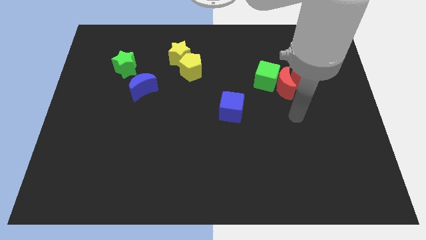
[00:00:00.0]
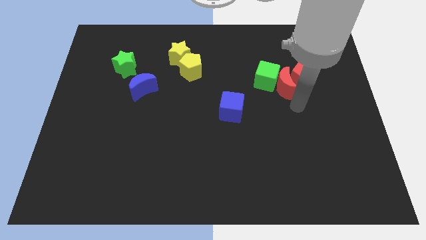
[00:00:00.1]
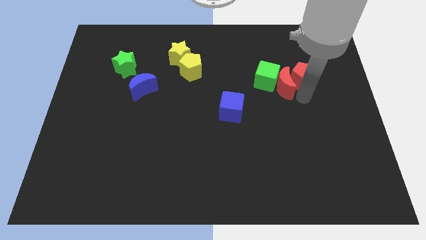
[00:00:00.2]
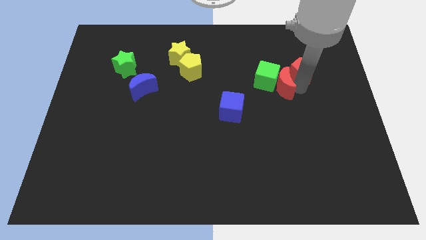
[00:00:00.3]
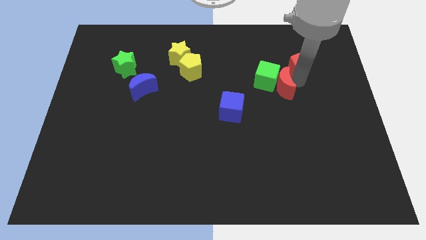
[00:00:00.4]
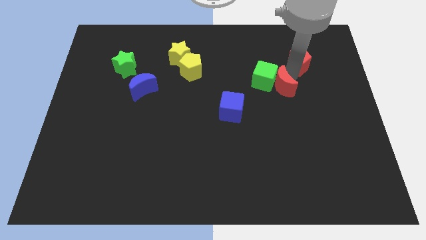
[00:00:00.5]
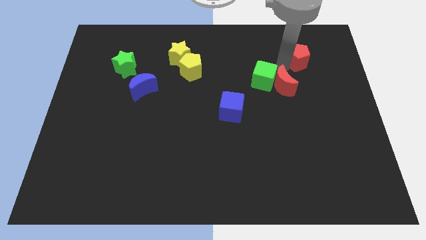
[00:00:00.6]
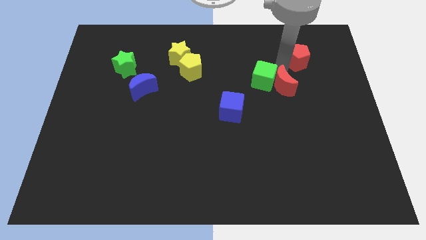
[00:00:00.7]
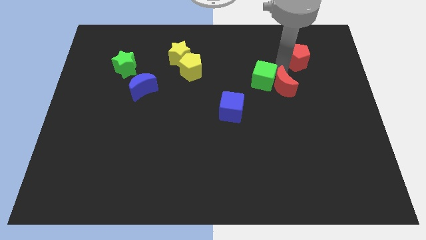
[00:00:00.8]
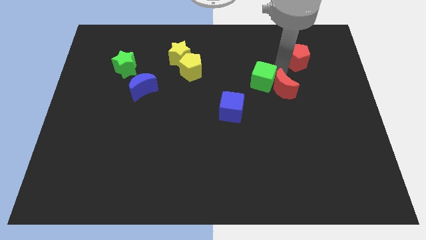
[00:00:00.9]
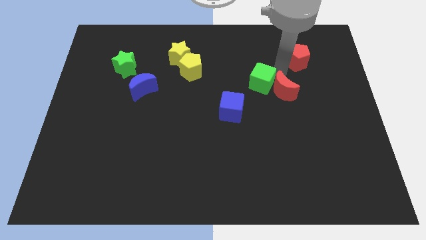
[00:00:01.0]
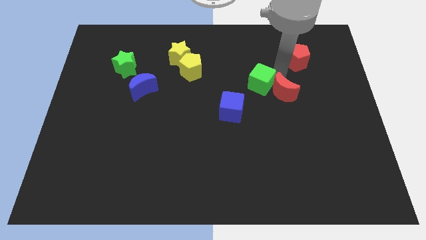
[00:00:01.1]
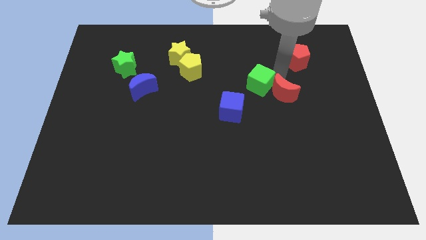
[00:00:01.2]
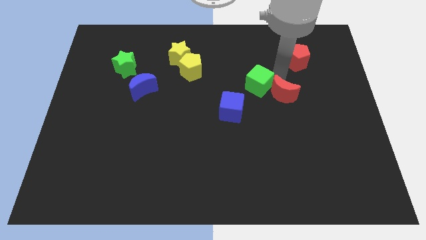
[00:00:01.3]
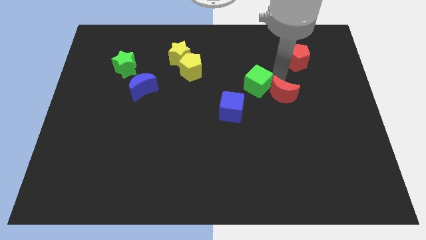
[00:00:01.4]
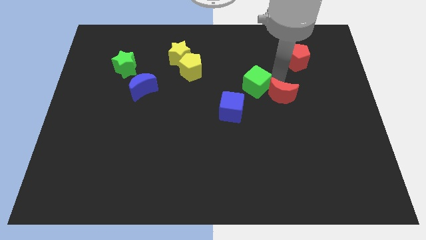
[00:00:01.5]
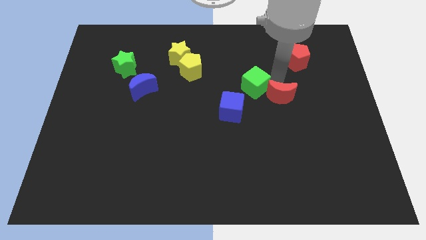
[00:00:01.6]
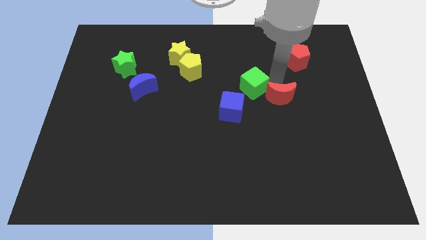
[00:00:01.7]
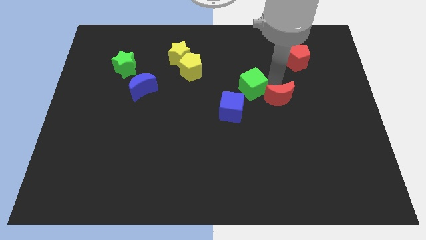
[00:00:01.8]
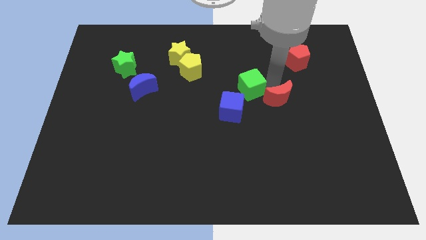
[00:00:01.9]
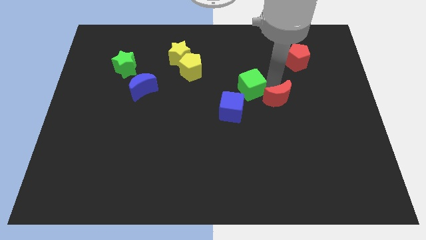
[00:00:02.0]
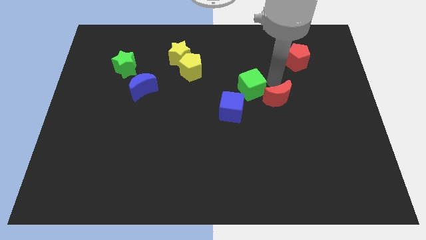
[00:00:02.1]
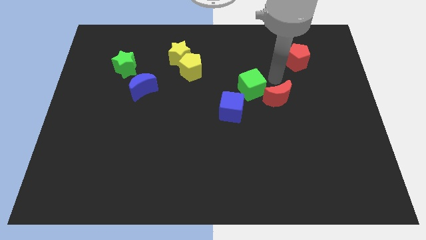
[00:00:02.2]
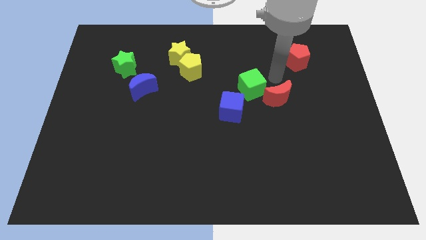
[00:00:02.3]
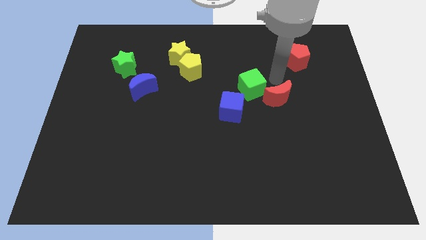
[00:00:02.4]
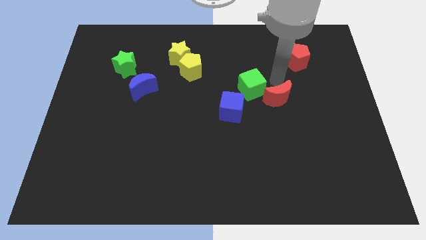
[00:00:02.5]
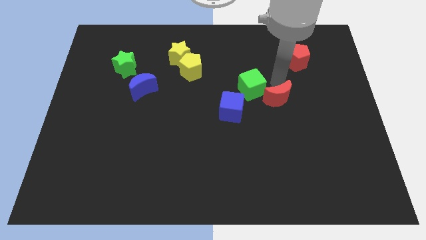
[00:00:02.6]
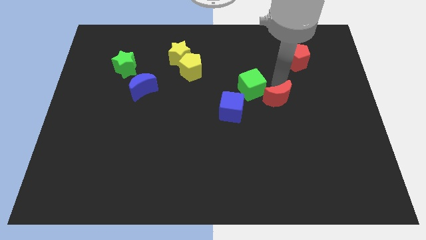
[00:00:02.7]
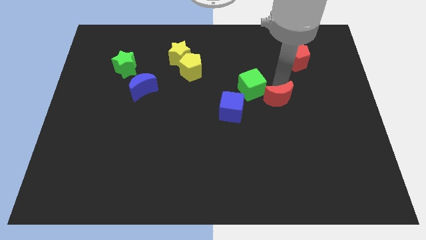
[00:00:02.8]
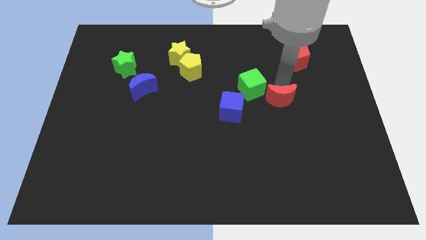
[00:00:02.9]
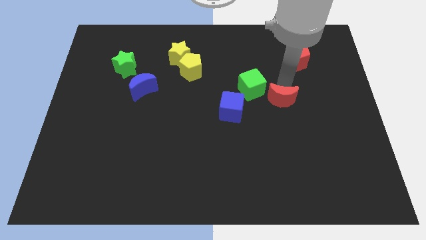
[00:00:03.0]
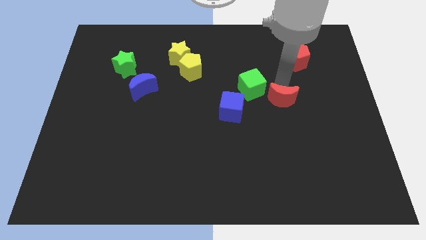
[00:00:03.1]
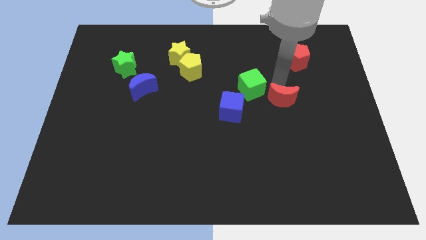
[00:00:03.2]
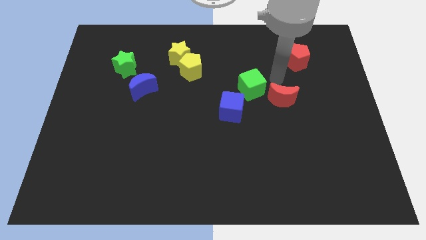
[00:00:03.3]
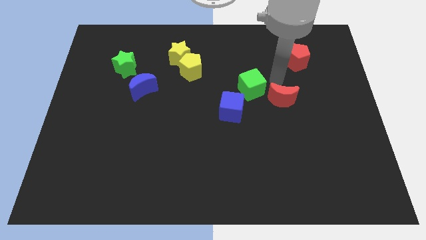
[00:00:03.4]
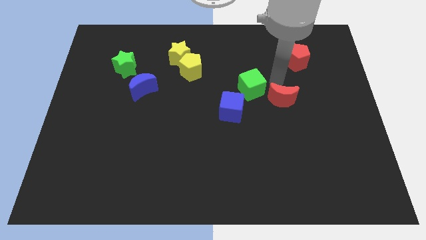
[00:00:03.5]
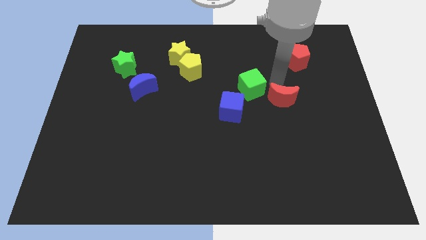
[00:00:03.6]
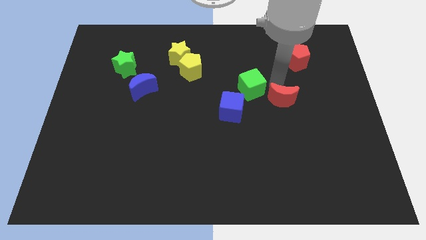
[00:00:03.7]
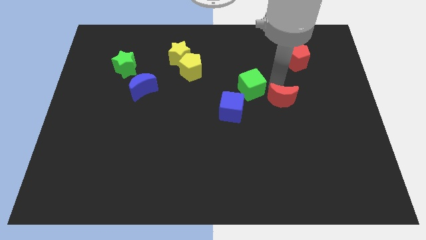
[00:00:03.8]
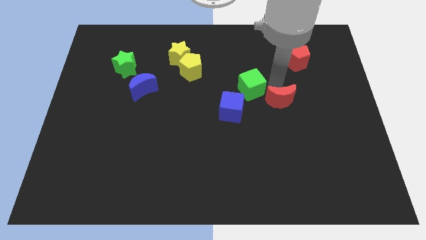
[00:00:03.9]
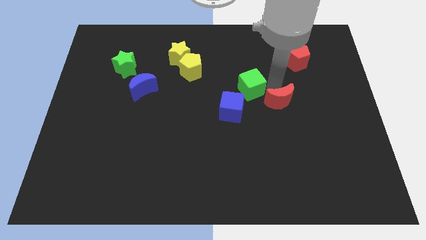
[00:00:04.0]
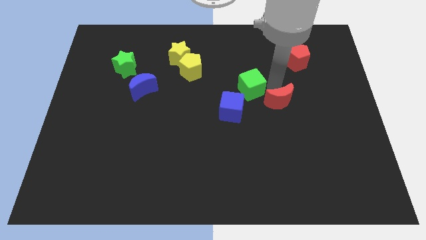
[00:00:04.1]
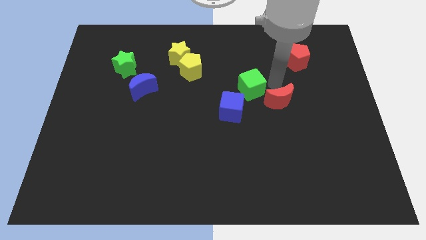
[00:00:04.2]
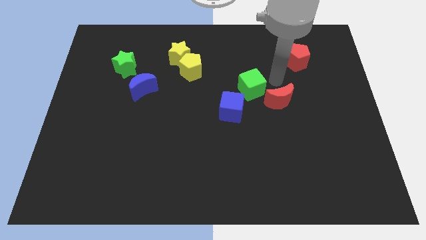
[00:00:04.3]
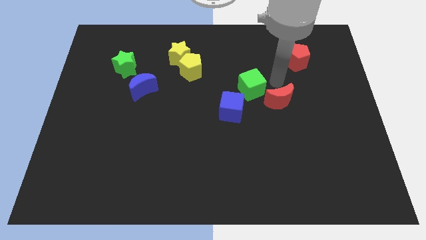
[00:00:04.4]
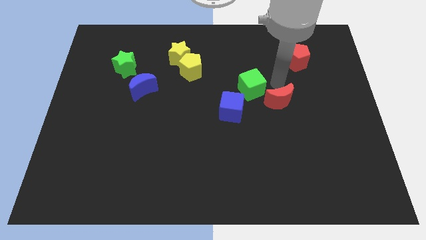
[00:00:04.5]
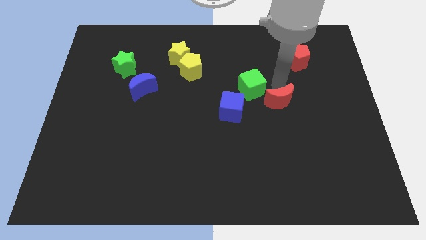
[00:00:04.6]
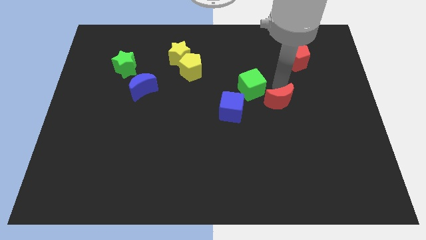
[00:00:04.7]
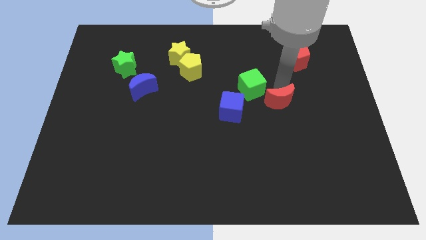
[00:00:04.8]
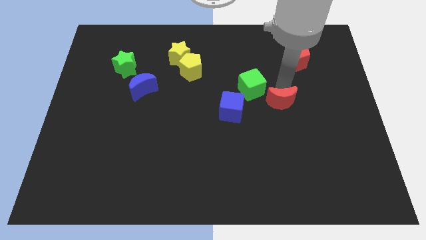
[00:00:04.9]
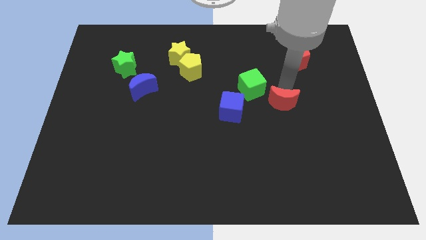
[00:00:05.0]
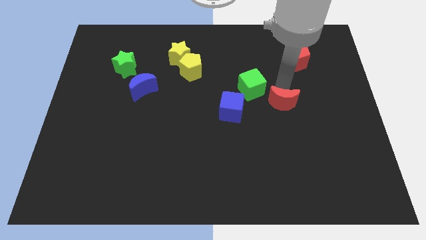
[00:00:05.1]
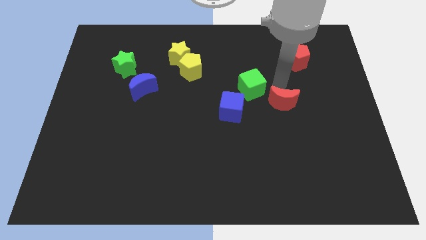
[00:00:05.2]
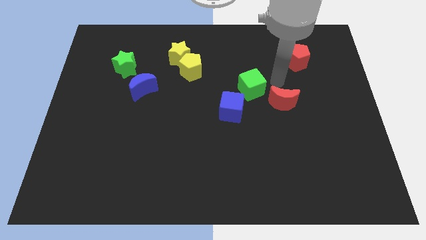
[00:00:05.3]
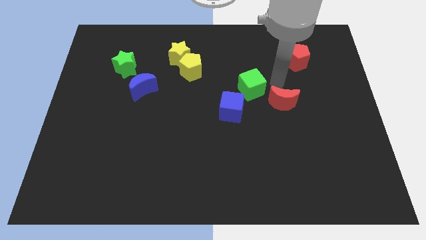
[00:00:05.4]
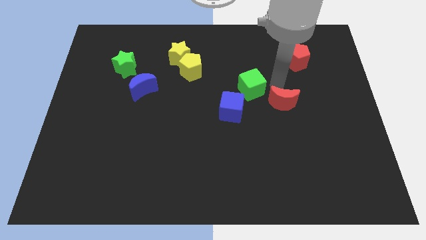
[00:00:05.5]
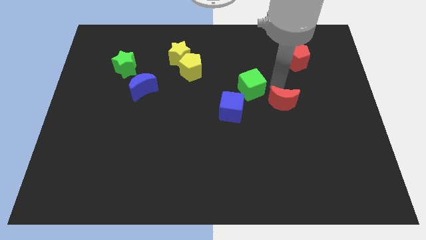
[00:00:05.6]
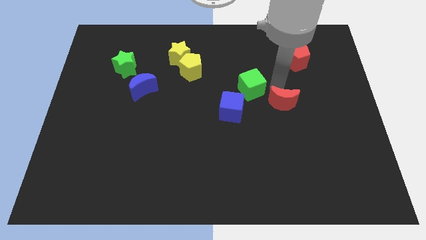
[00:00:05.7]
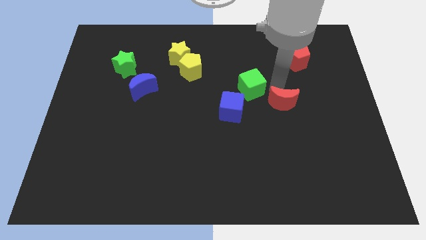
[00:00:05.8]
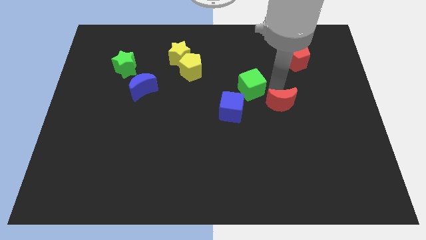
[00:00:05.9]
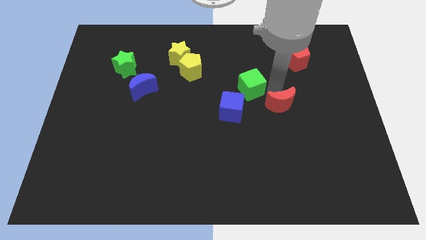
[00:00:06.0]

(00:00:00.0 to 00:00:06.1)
move the red moon away from the green cube and red pentagon

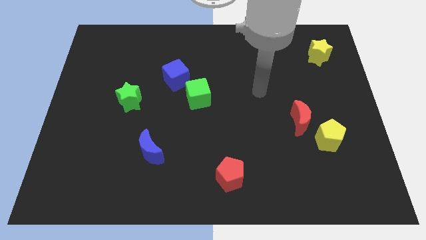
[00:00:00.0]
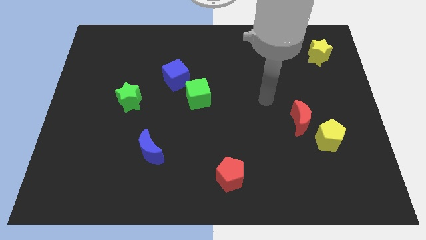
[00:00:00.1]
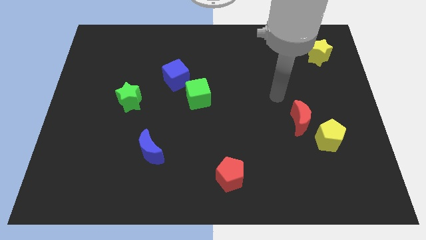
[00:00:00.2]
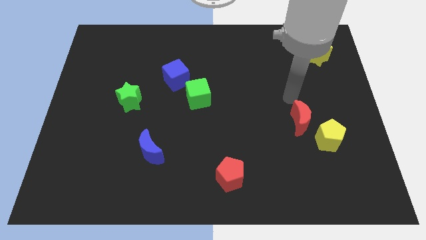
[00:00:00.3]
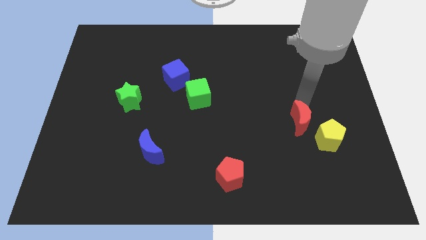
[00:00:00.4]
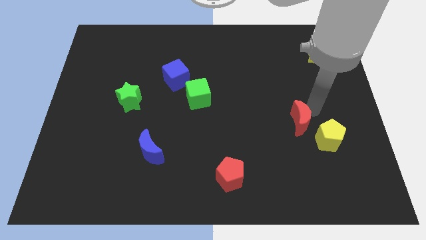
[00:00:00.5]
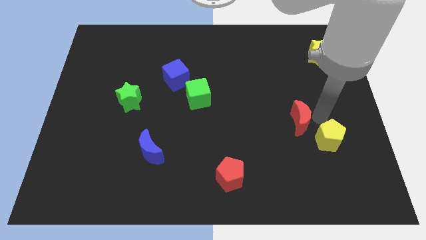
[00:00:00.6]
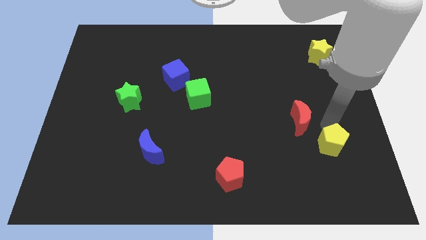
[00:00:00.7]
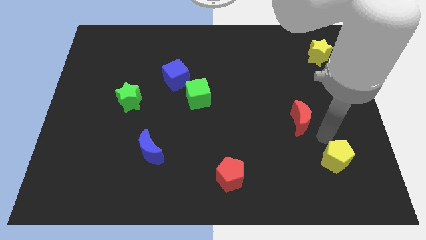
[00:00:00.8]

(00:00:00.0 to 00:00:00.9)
pull the red moon apart from the yellow pentagon

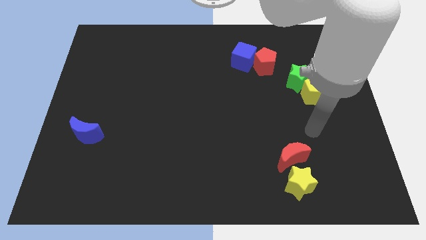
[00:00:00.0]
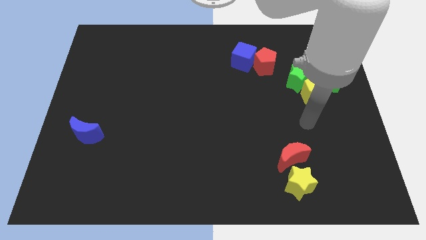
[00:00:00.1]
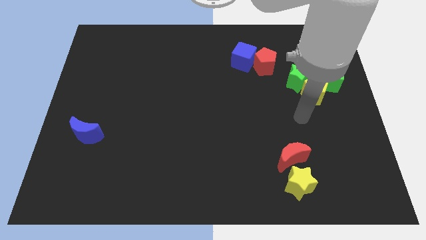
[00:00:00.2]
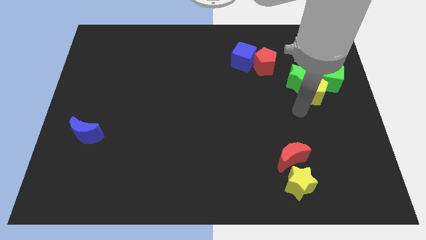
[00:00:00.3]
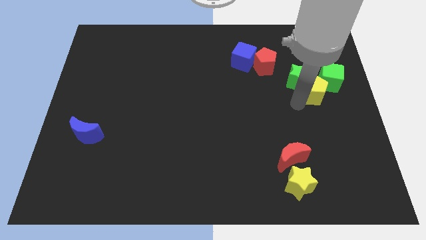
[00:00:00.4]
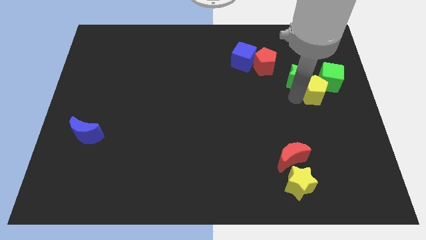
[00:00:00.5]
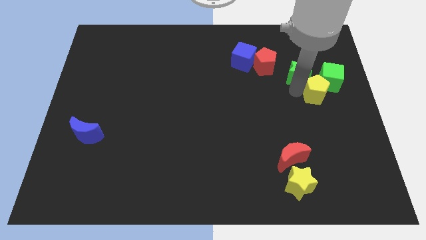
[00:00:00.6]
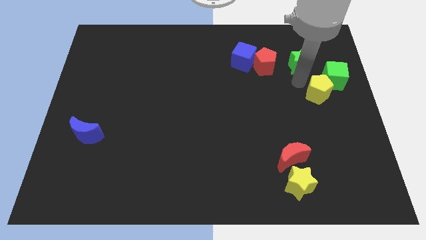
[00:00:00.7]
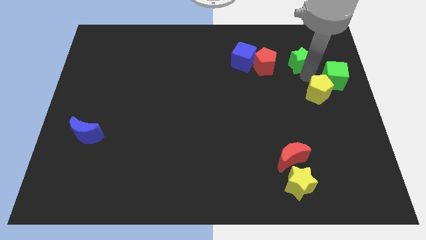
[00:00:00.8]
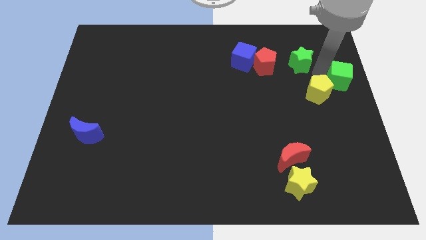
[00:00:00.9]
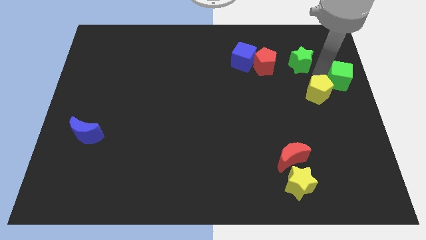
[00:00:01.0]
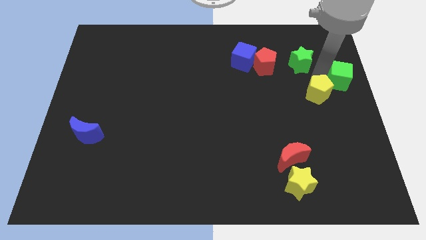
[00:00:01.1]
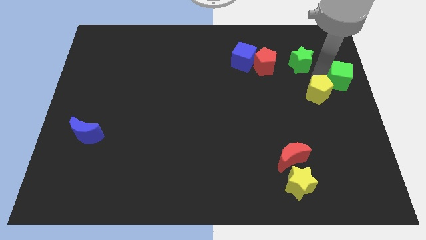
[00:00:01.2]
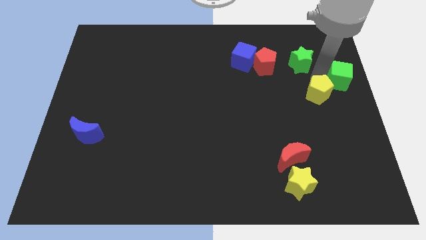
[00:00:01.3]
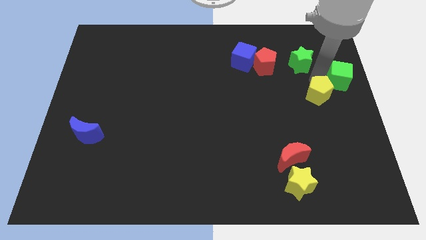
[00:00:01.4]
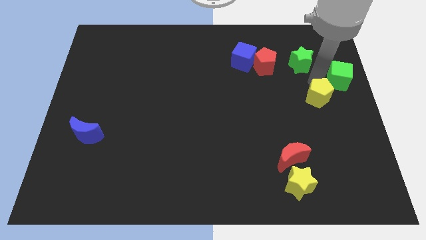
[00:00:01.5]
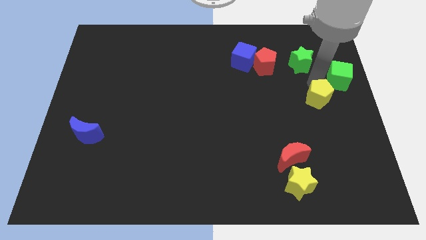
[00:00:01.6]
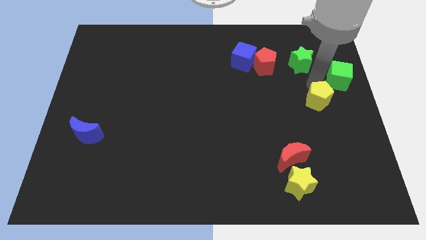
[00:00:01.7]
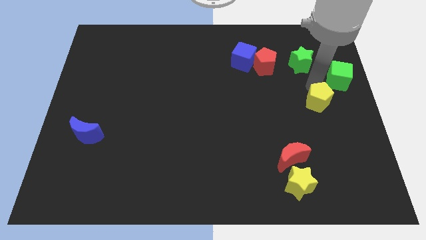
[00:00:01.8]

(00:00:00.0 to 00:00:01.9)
move the yellow pentagon away from the green star and green cube

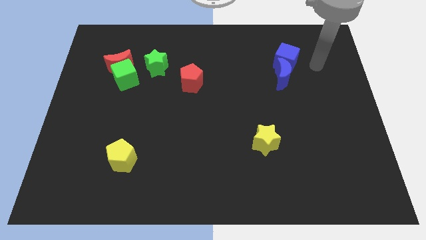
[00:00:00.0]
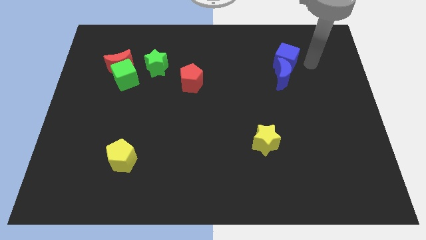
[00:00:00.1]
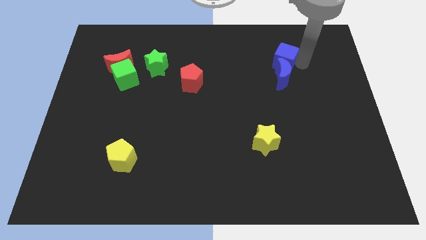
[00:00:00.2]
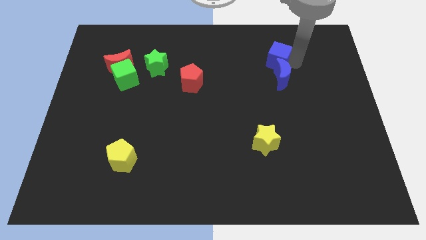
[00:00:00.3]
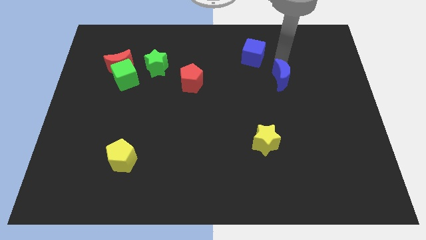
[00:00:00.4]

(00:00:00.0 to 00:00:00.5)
separate the blue moon from the blue cube
